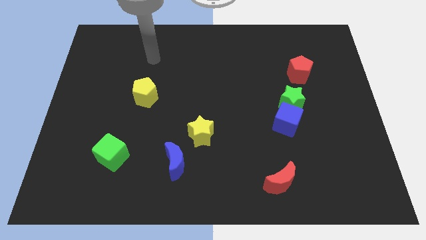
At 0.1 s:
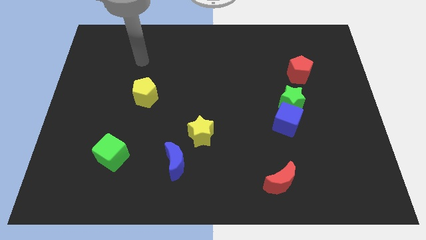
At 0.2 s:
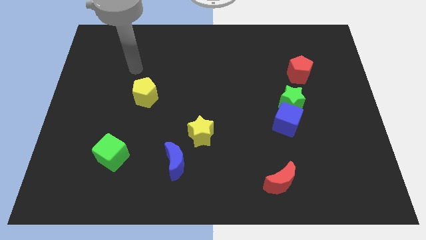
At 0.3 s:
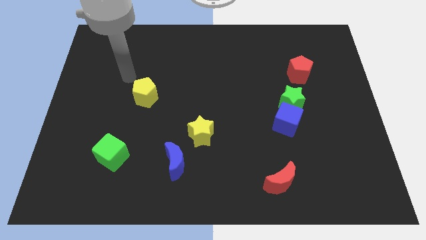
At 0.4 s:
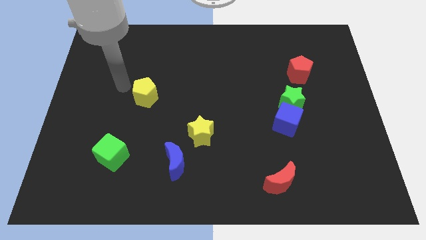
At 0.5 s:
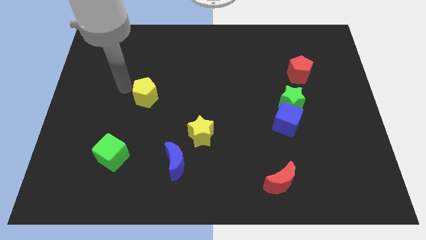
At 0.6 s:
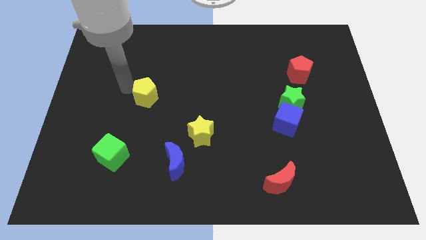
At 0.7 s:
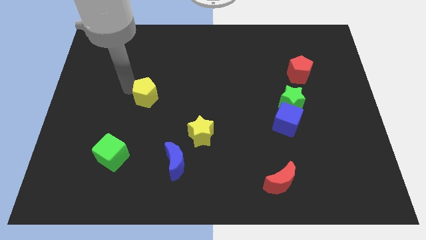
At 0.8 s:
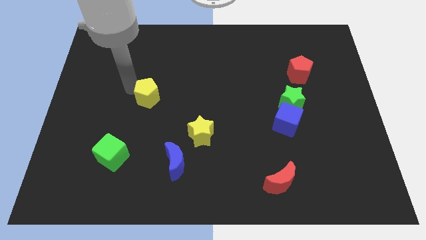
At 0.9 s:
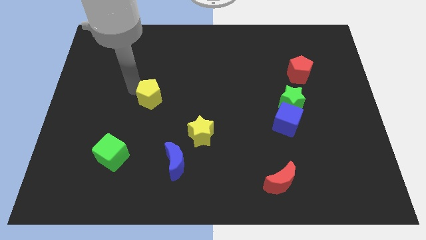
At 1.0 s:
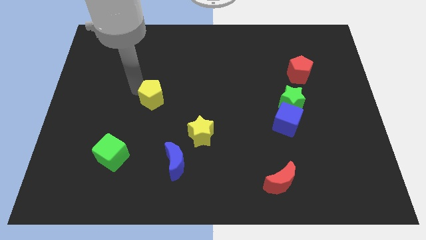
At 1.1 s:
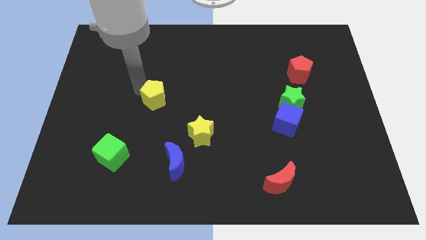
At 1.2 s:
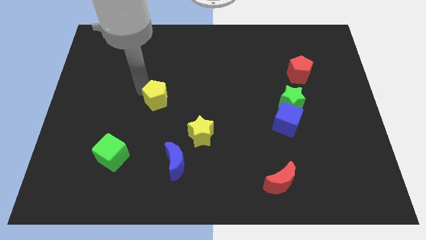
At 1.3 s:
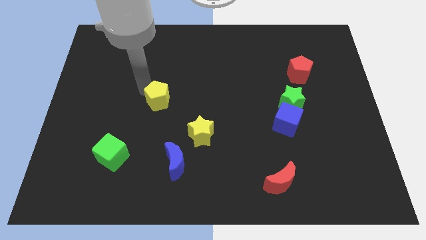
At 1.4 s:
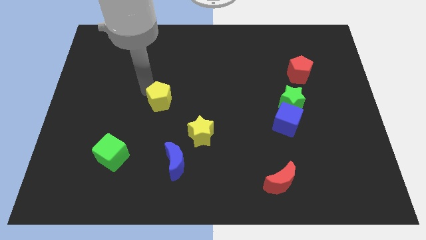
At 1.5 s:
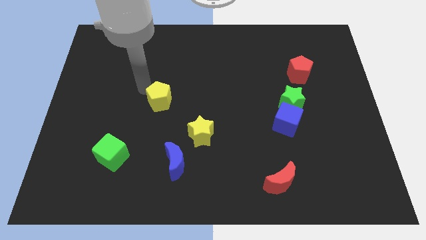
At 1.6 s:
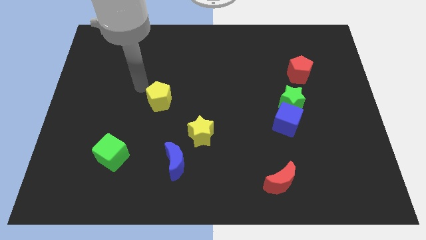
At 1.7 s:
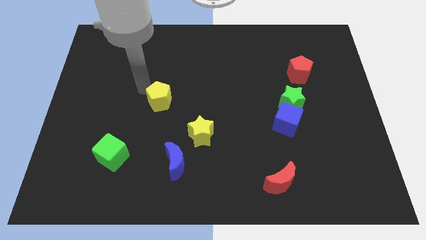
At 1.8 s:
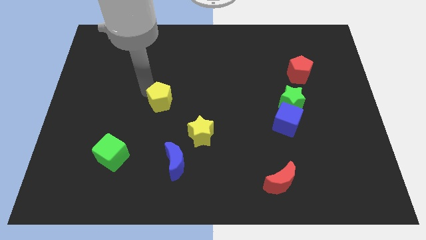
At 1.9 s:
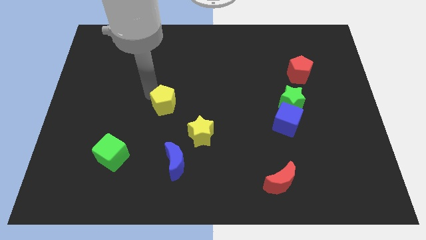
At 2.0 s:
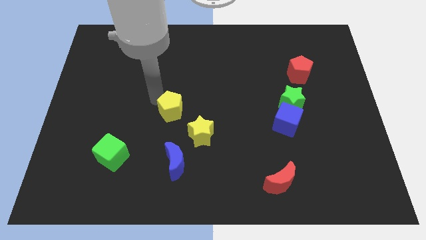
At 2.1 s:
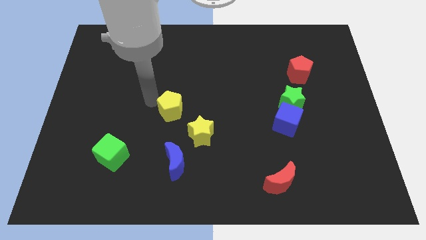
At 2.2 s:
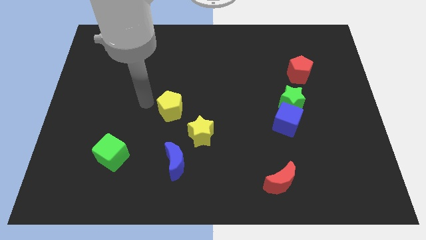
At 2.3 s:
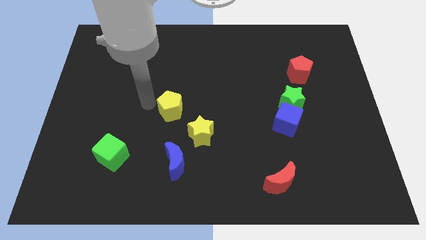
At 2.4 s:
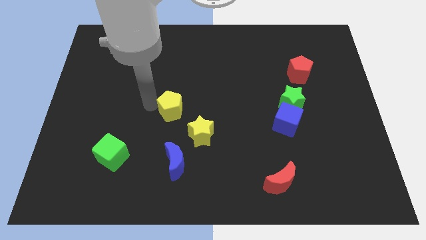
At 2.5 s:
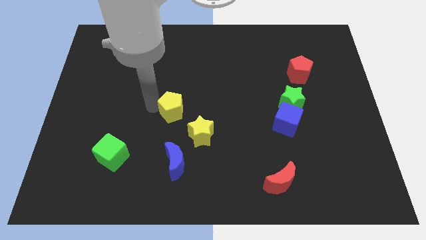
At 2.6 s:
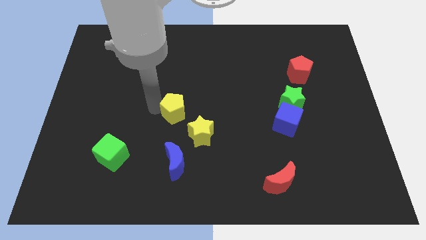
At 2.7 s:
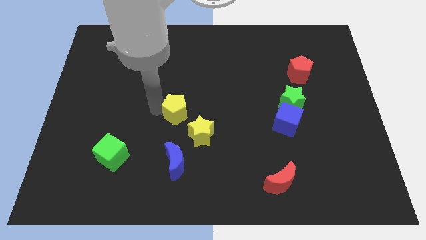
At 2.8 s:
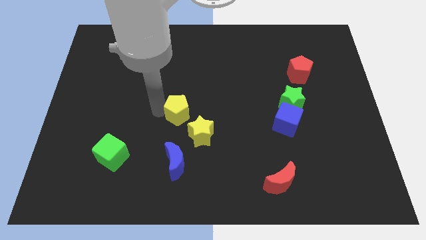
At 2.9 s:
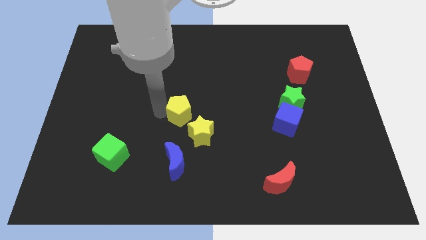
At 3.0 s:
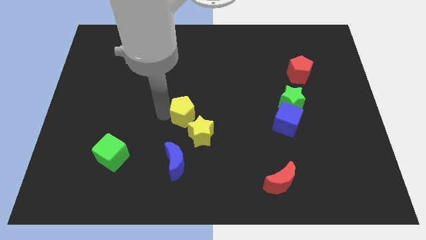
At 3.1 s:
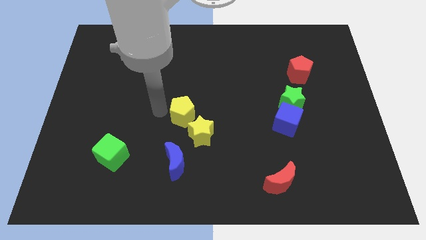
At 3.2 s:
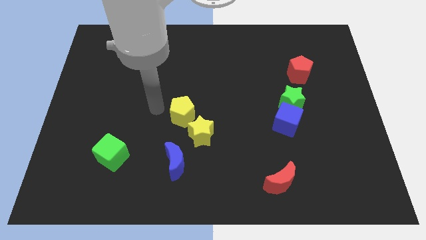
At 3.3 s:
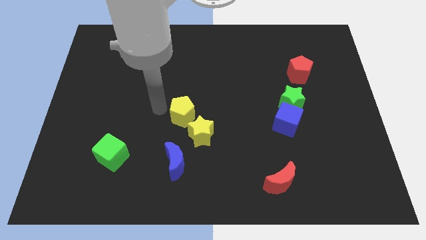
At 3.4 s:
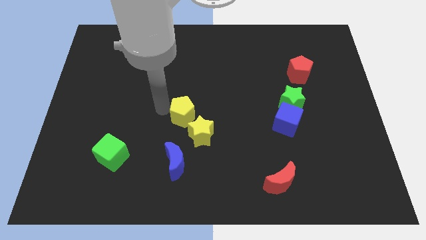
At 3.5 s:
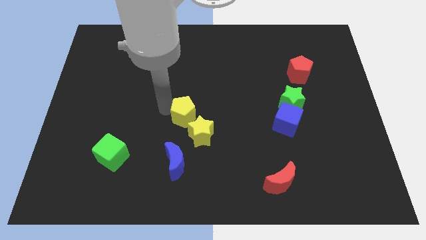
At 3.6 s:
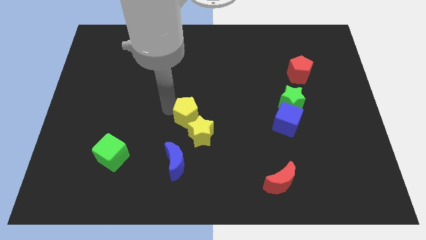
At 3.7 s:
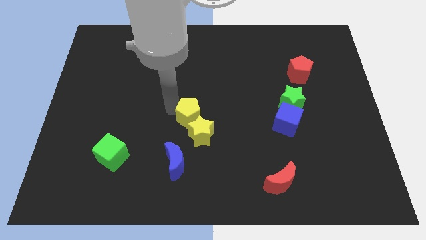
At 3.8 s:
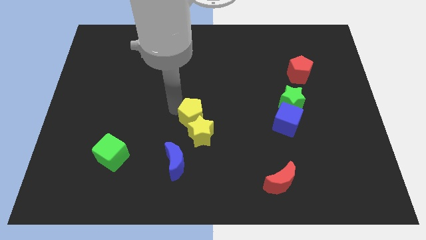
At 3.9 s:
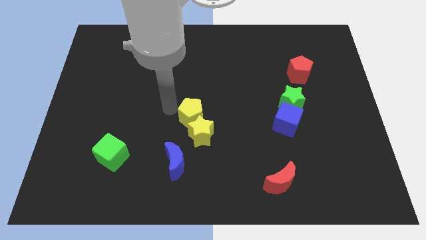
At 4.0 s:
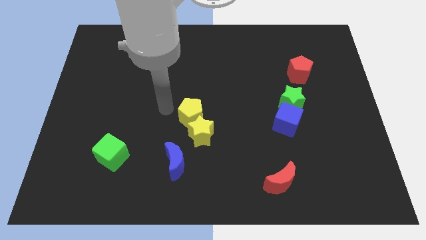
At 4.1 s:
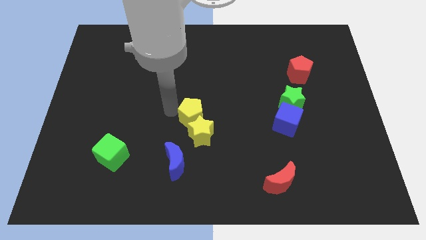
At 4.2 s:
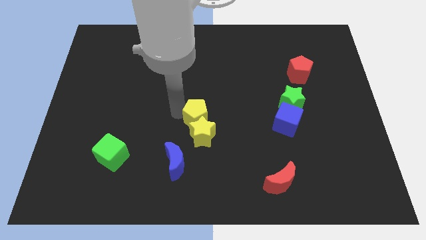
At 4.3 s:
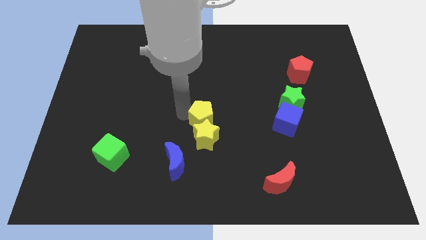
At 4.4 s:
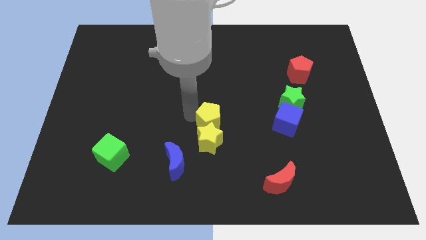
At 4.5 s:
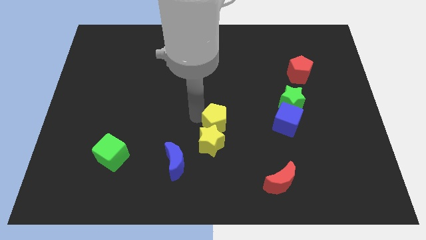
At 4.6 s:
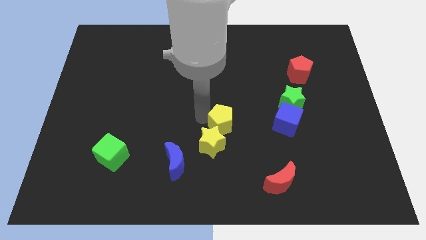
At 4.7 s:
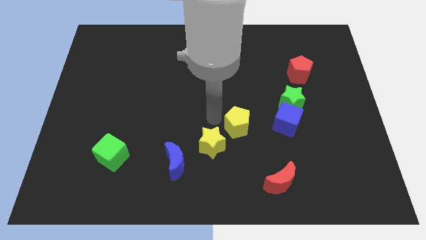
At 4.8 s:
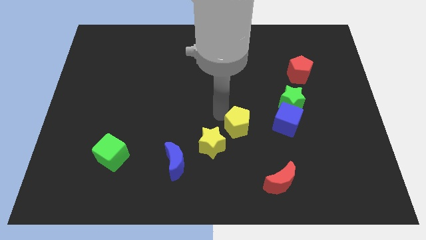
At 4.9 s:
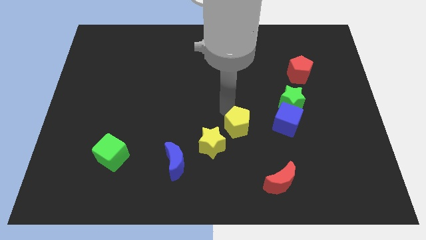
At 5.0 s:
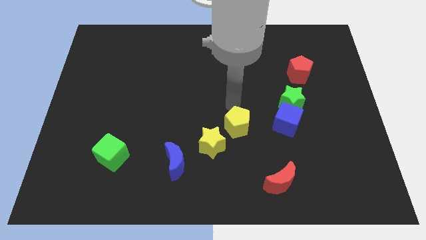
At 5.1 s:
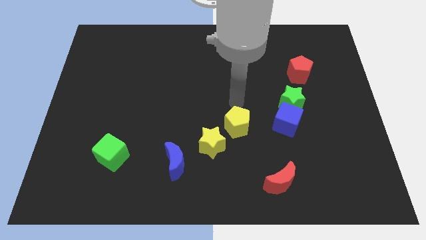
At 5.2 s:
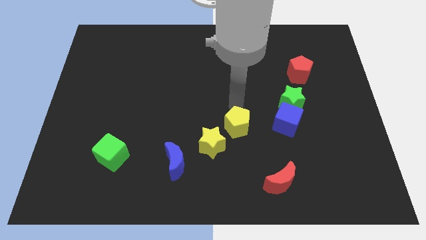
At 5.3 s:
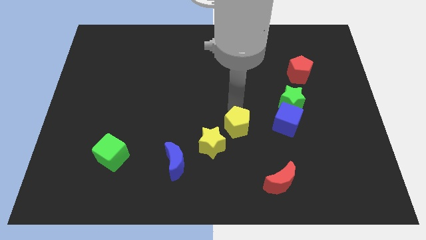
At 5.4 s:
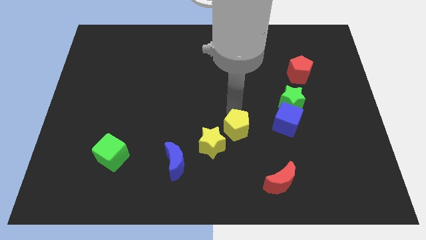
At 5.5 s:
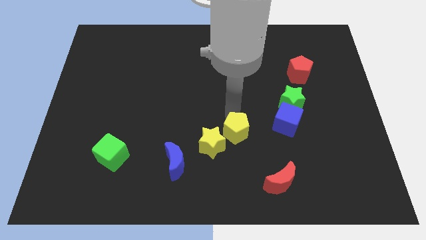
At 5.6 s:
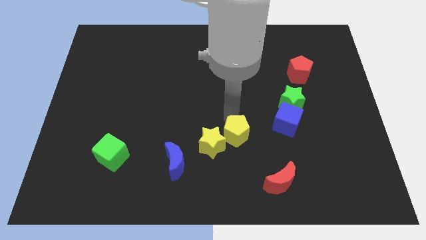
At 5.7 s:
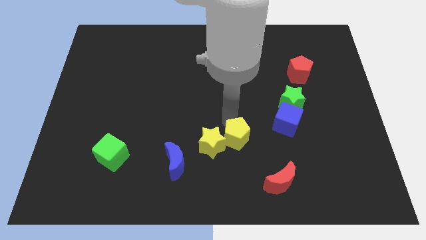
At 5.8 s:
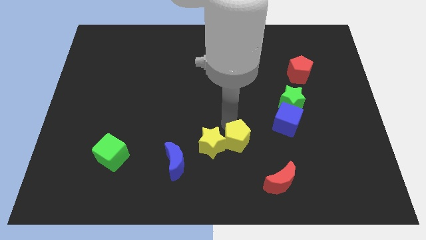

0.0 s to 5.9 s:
put the yellow pentagon diagonally down and to the right of the yellow star

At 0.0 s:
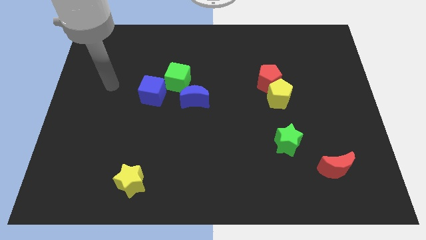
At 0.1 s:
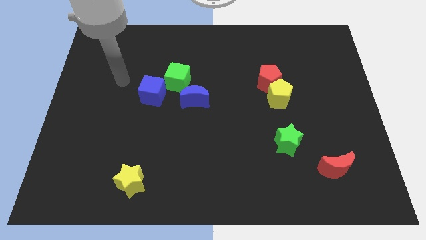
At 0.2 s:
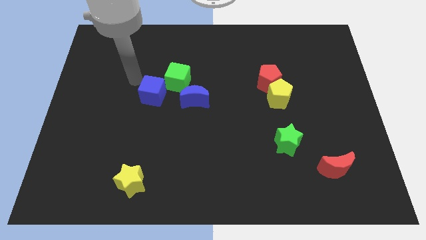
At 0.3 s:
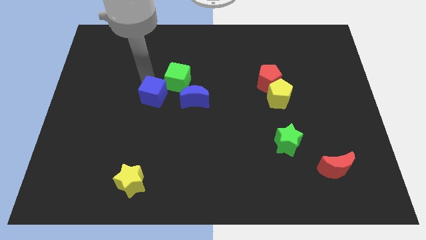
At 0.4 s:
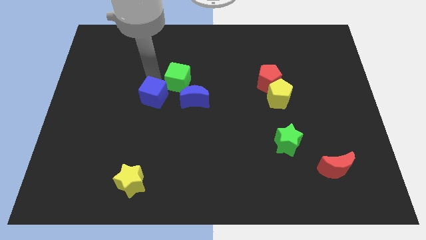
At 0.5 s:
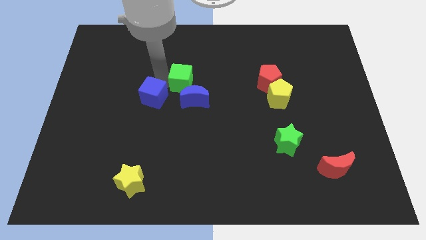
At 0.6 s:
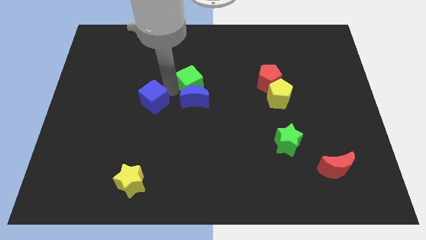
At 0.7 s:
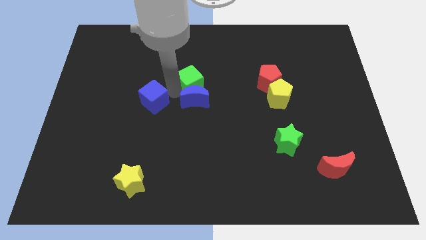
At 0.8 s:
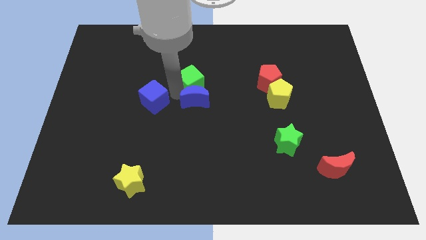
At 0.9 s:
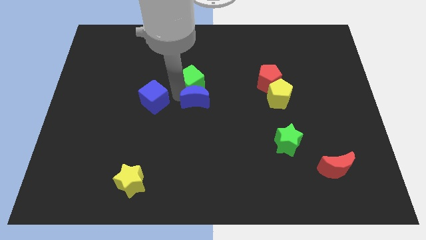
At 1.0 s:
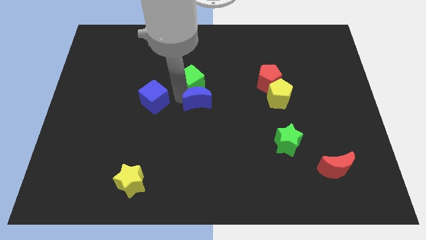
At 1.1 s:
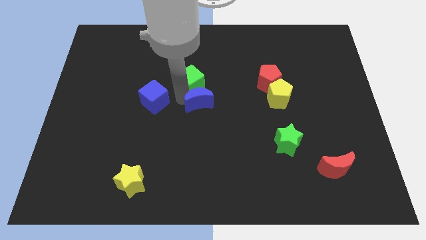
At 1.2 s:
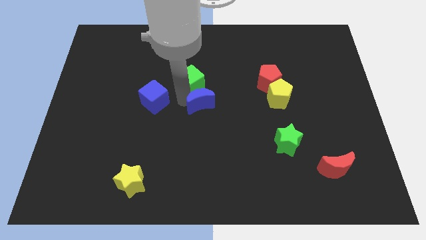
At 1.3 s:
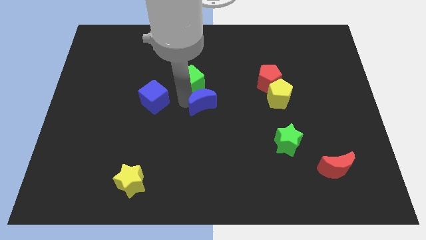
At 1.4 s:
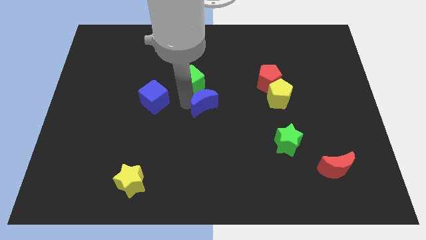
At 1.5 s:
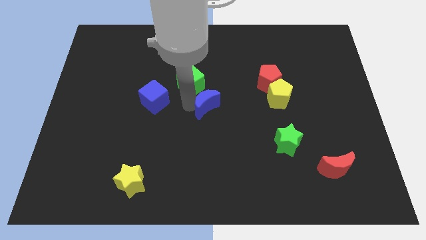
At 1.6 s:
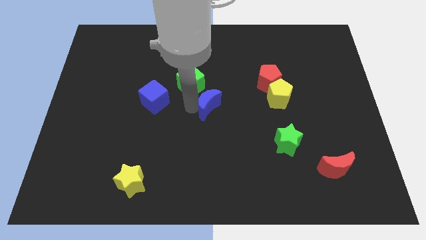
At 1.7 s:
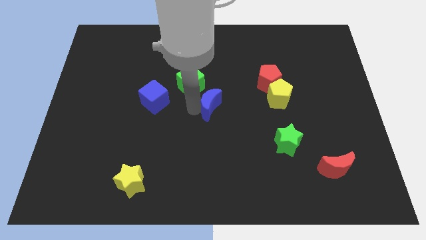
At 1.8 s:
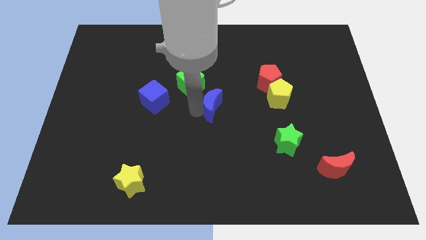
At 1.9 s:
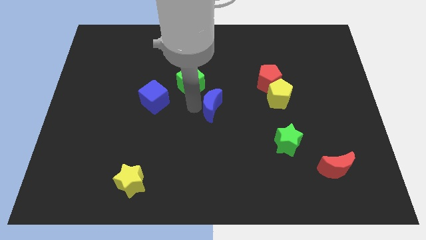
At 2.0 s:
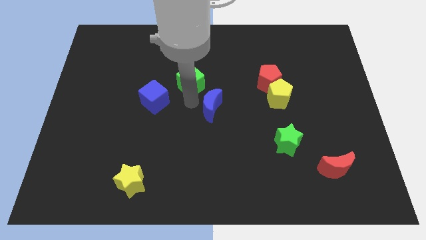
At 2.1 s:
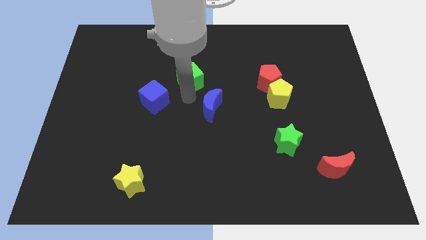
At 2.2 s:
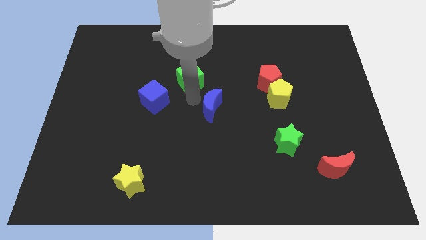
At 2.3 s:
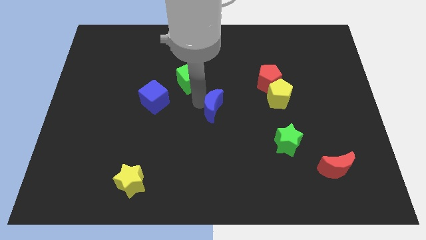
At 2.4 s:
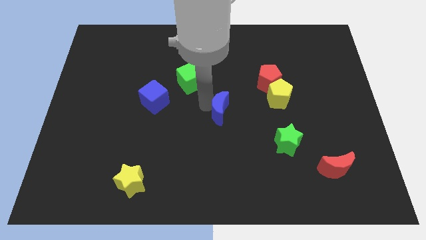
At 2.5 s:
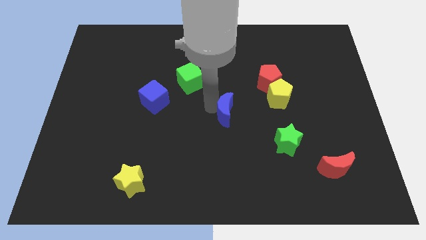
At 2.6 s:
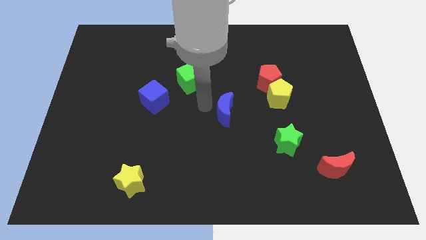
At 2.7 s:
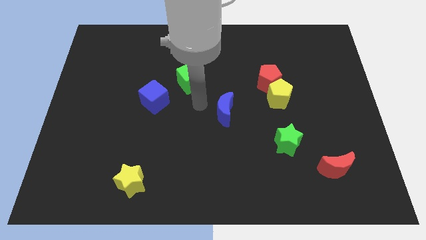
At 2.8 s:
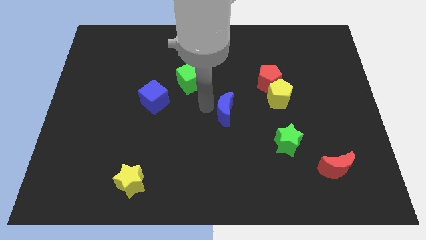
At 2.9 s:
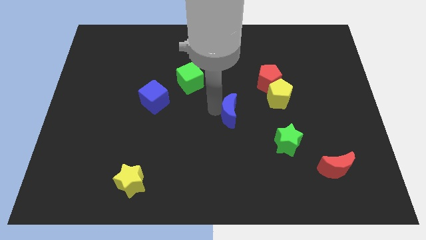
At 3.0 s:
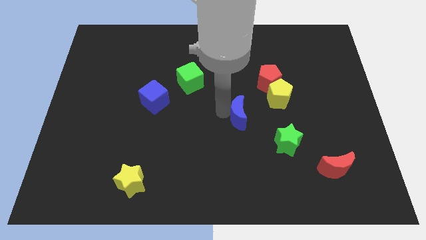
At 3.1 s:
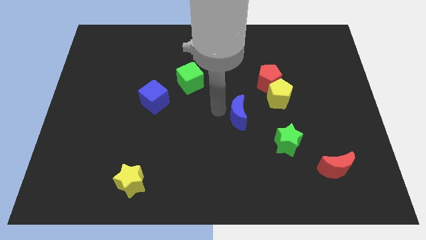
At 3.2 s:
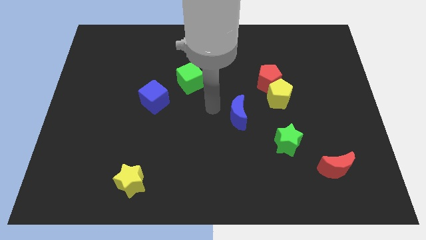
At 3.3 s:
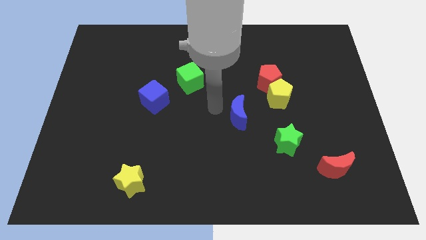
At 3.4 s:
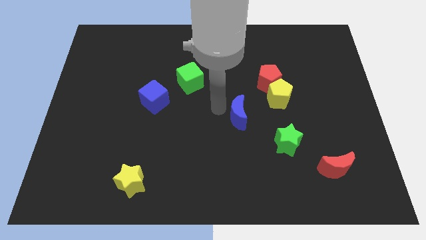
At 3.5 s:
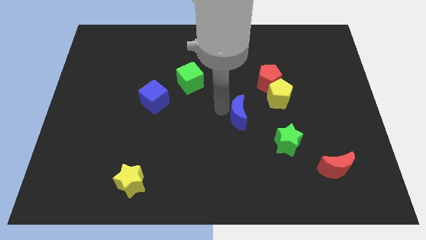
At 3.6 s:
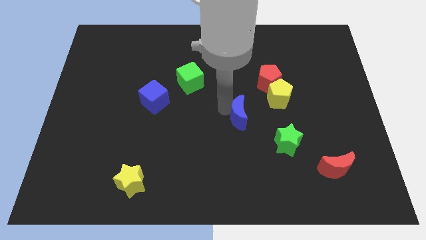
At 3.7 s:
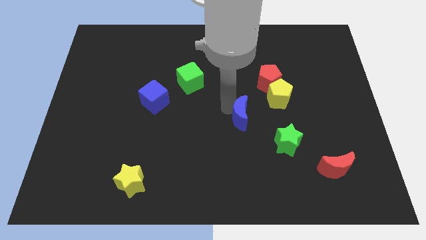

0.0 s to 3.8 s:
slide the blue moon to the top left of the green star
